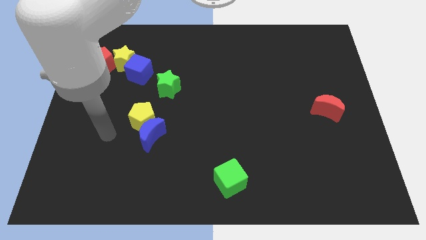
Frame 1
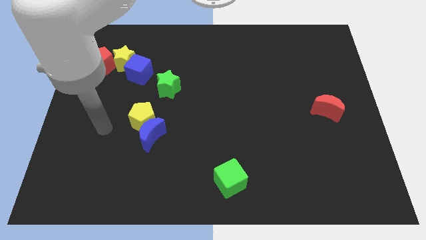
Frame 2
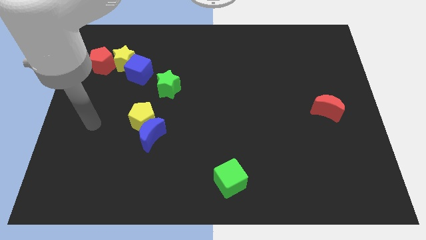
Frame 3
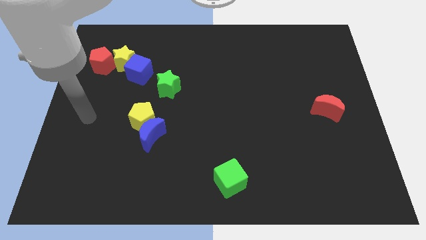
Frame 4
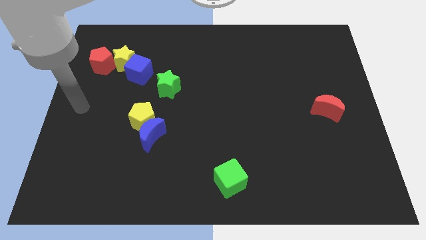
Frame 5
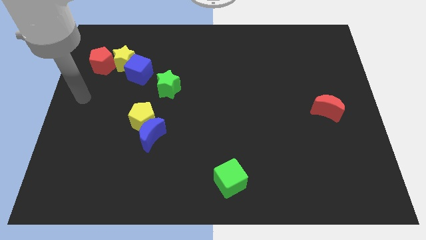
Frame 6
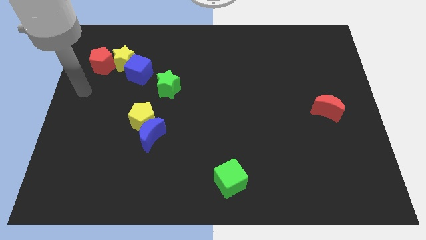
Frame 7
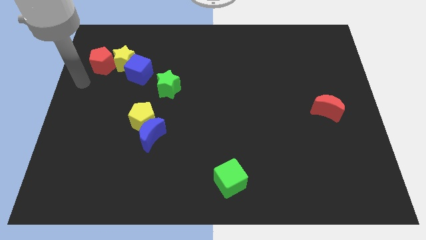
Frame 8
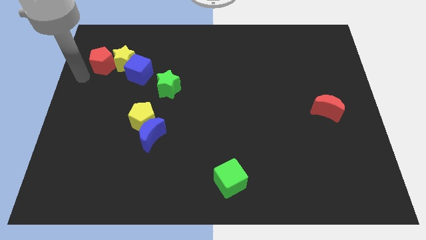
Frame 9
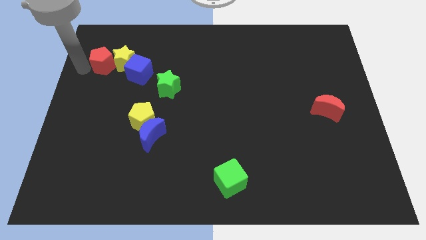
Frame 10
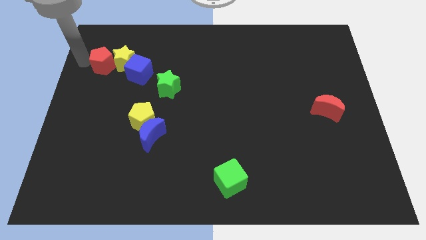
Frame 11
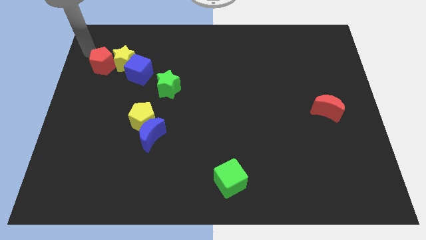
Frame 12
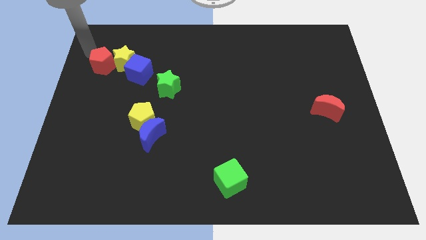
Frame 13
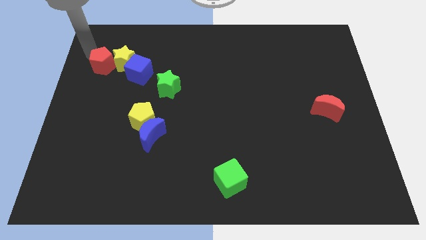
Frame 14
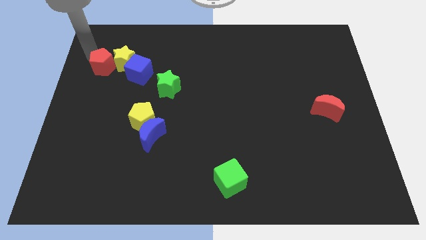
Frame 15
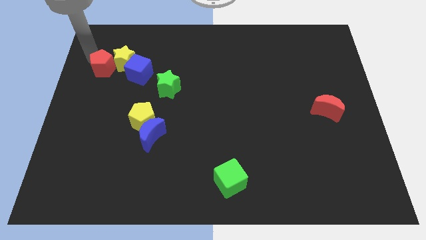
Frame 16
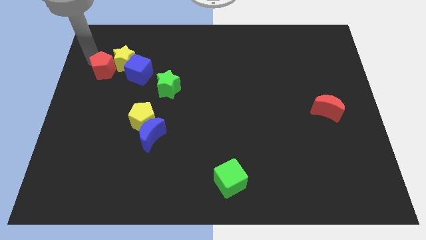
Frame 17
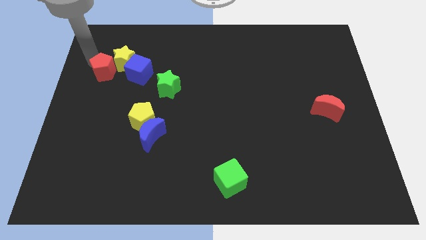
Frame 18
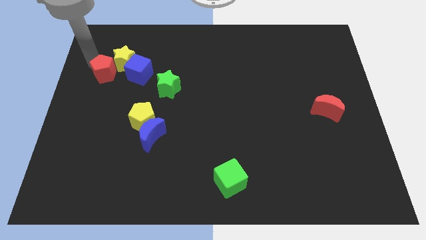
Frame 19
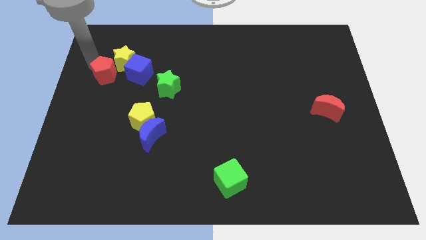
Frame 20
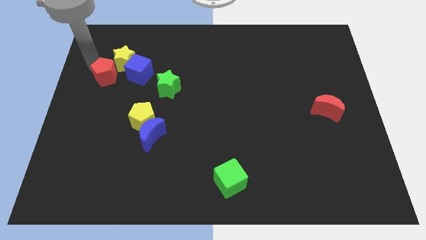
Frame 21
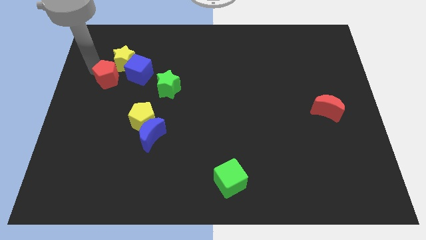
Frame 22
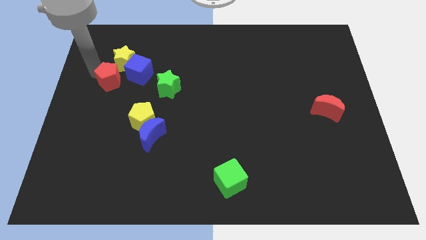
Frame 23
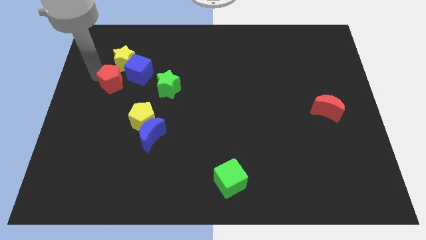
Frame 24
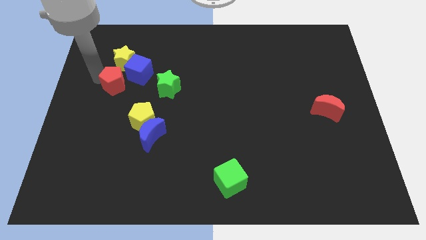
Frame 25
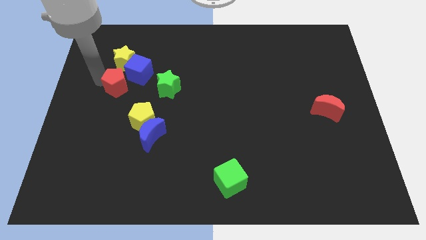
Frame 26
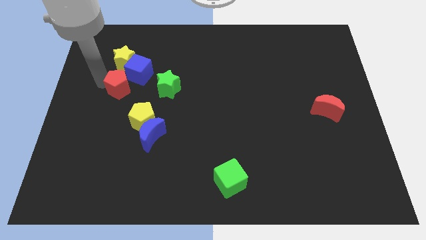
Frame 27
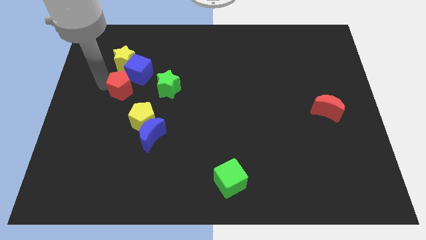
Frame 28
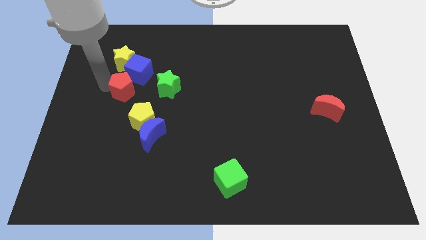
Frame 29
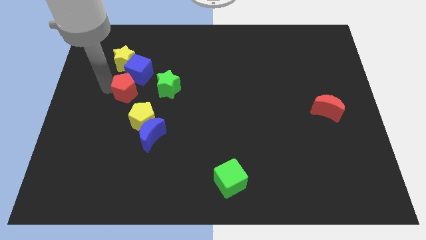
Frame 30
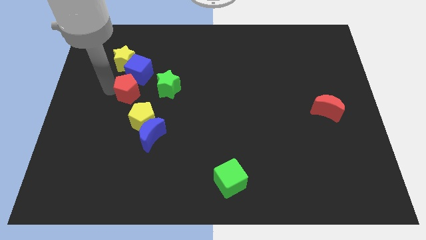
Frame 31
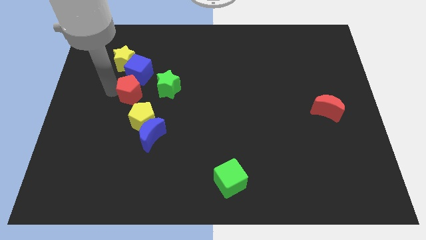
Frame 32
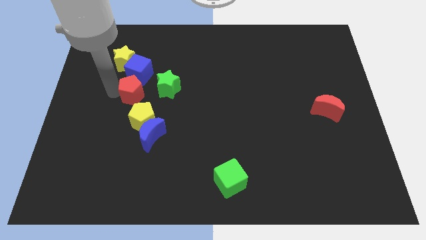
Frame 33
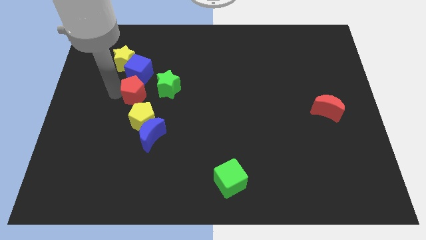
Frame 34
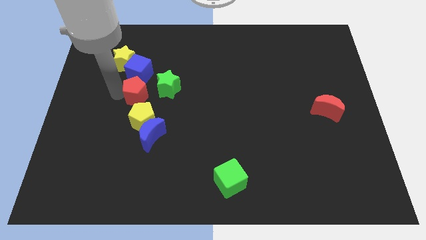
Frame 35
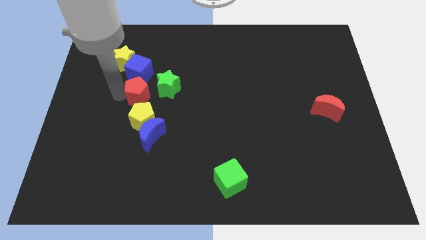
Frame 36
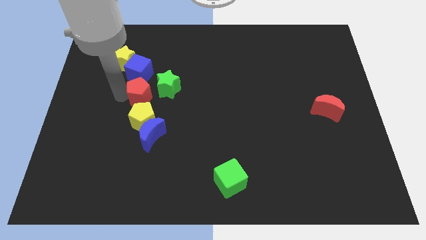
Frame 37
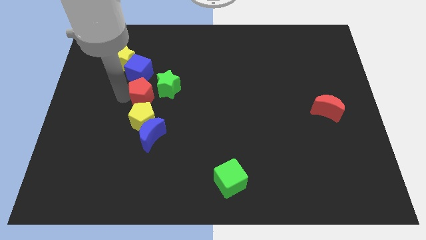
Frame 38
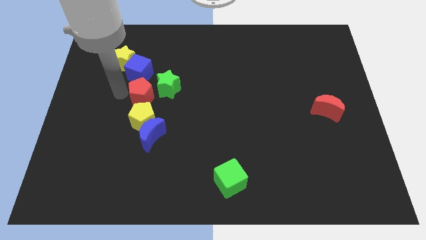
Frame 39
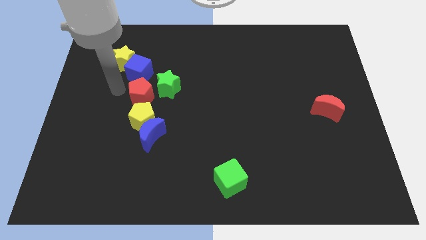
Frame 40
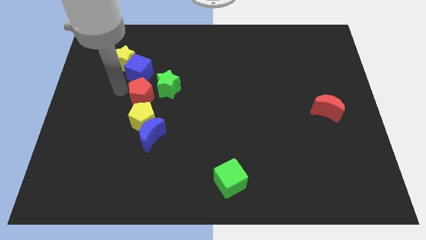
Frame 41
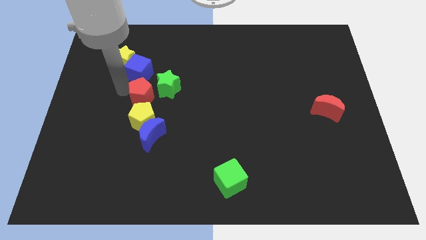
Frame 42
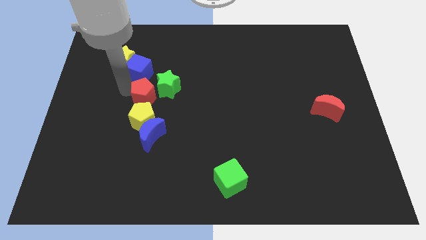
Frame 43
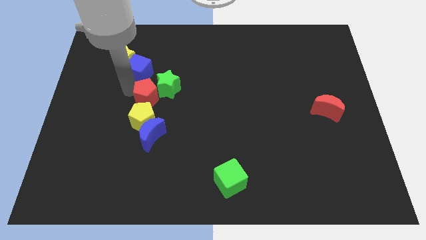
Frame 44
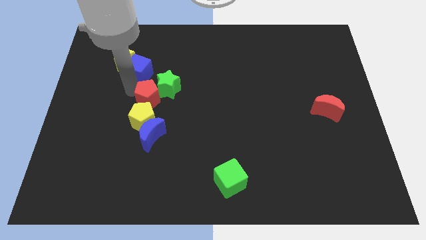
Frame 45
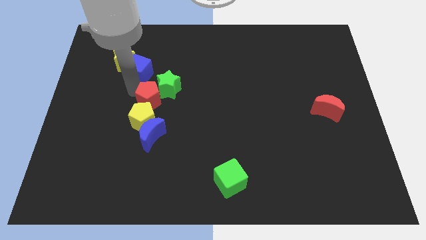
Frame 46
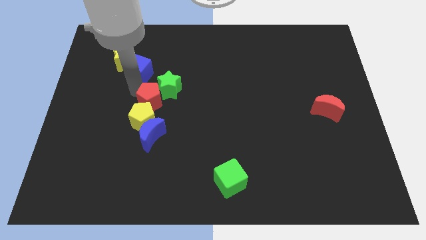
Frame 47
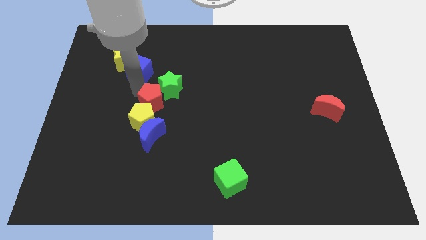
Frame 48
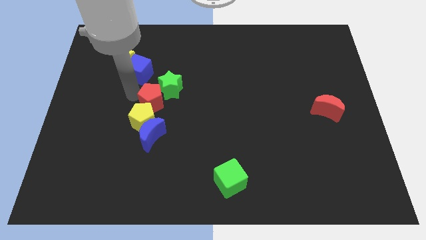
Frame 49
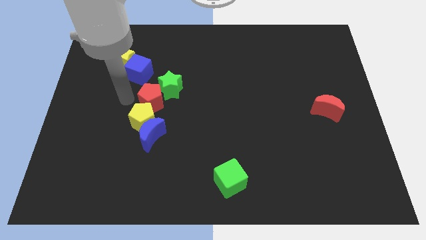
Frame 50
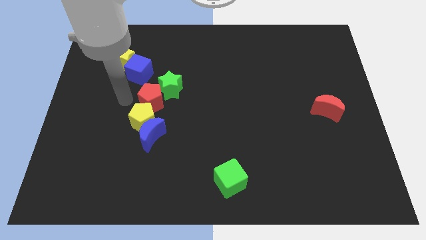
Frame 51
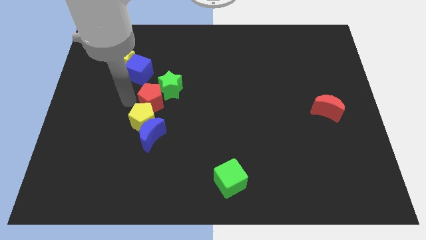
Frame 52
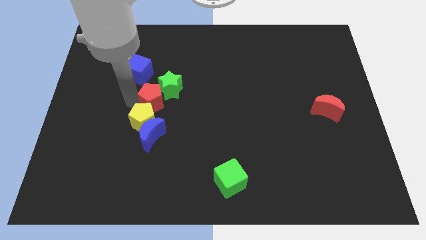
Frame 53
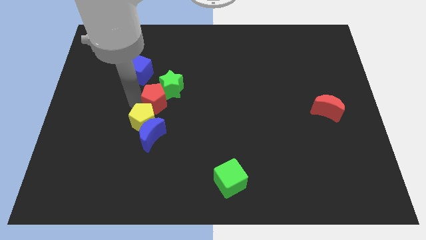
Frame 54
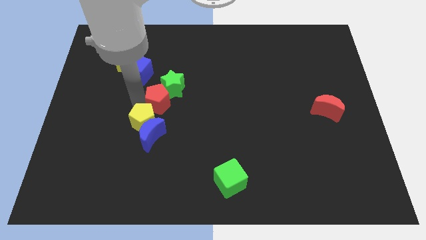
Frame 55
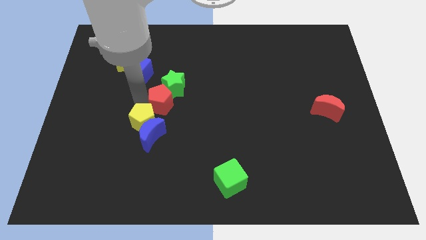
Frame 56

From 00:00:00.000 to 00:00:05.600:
push the red pentagon to the middle
